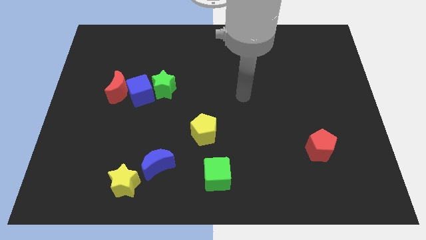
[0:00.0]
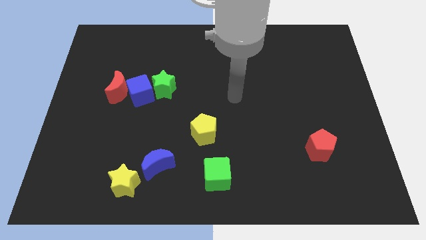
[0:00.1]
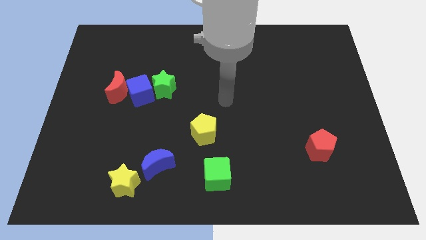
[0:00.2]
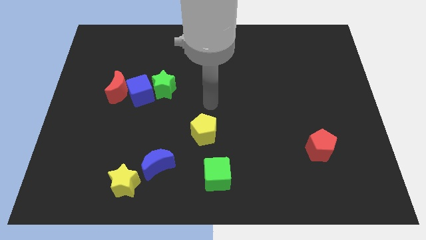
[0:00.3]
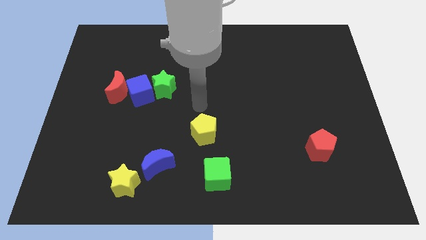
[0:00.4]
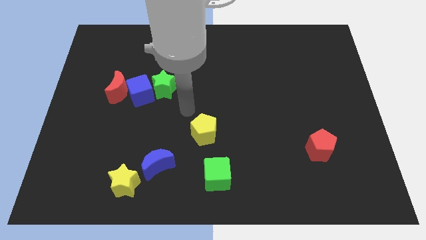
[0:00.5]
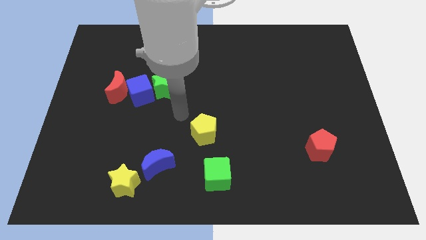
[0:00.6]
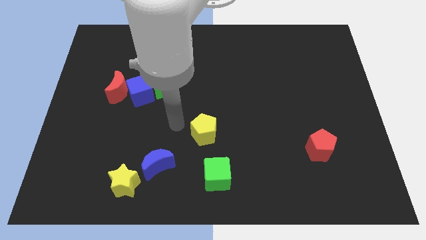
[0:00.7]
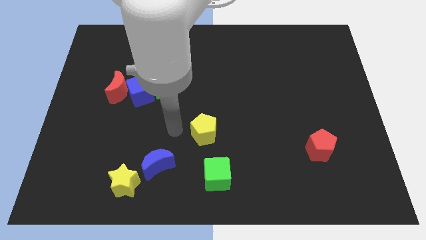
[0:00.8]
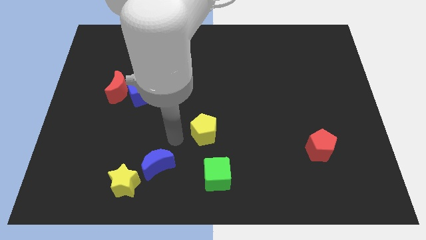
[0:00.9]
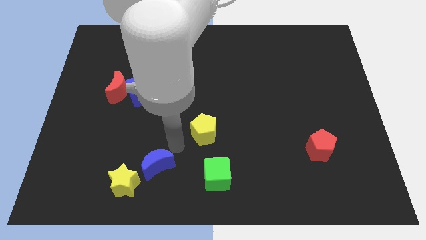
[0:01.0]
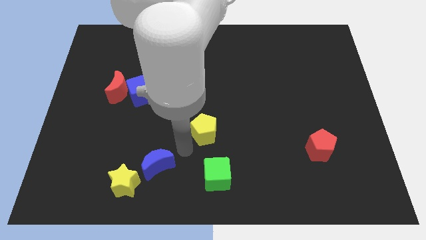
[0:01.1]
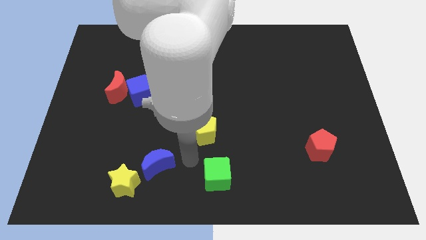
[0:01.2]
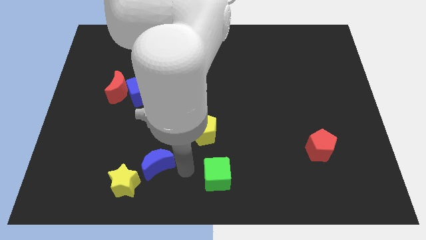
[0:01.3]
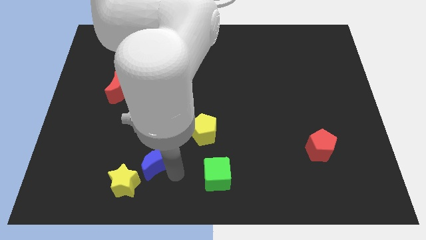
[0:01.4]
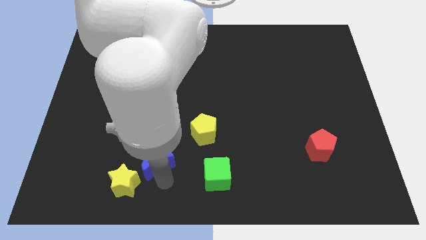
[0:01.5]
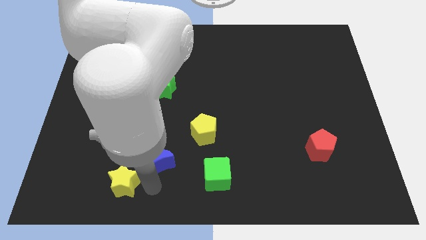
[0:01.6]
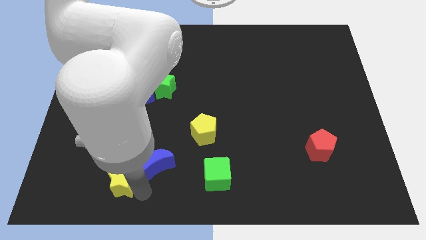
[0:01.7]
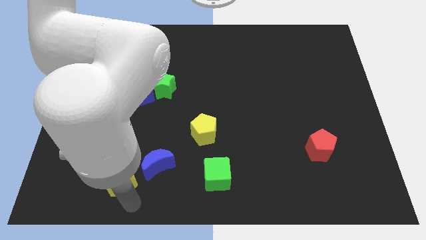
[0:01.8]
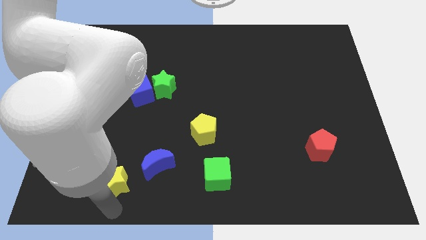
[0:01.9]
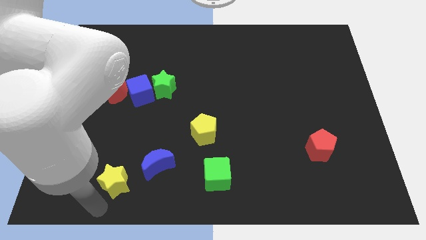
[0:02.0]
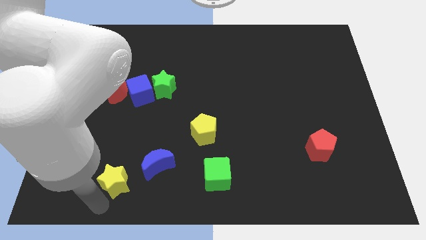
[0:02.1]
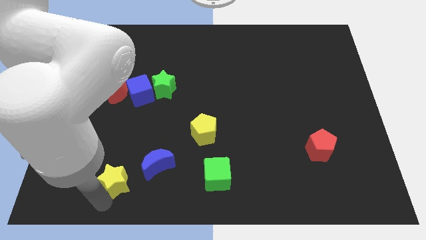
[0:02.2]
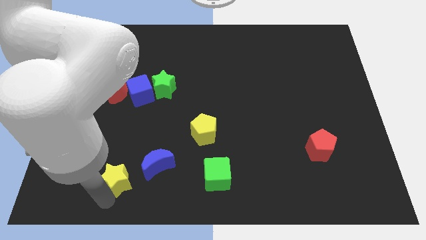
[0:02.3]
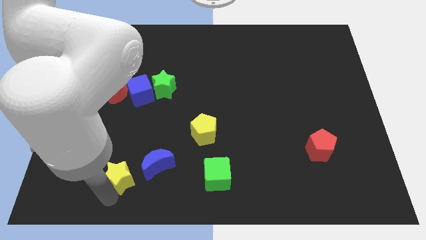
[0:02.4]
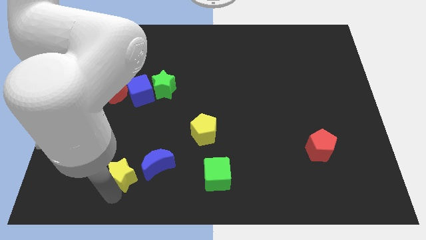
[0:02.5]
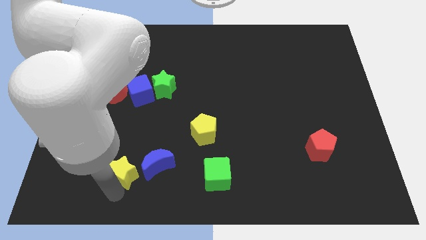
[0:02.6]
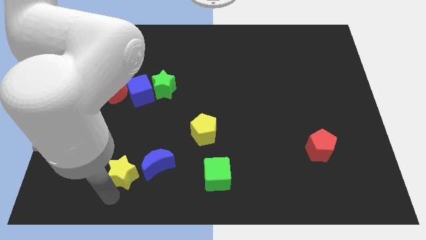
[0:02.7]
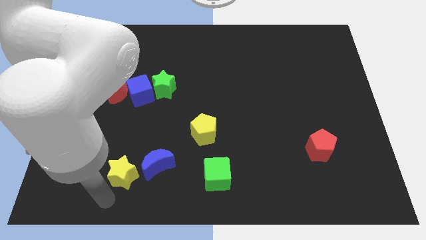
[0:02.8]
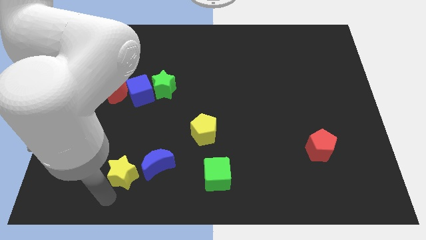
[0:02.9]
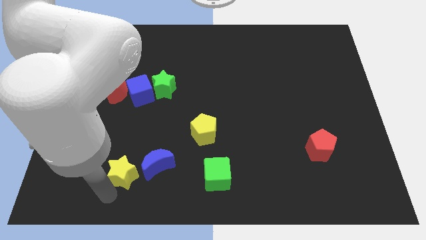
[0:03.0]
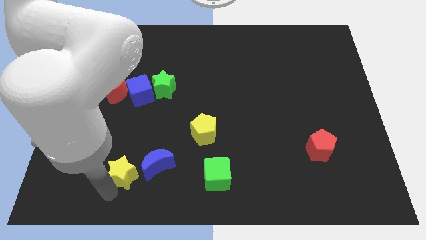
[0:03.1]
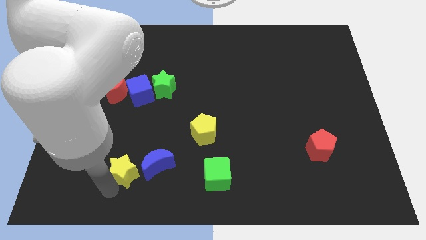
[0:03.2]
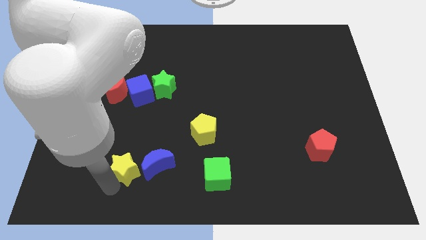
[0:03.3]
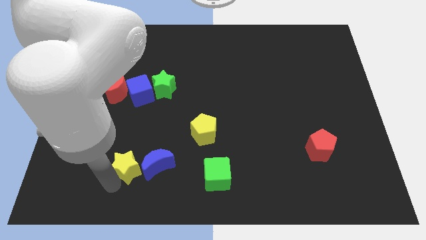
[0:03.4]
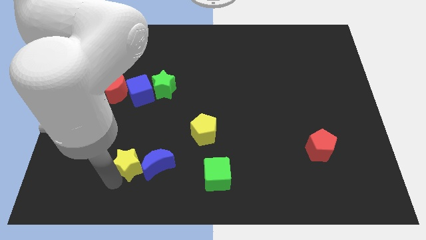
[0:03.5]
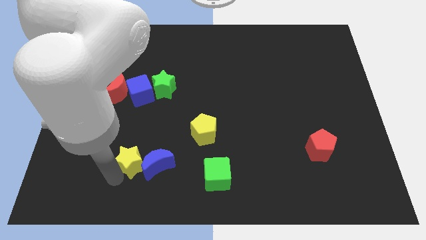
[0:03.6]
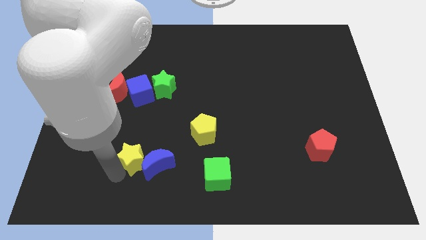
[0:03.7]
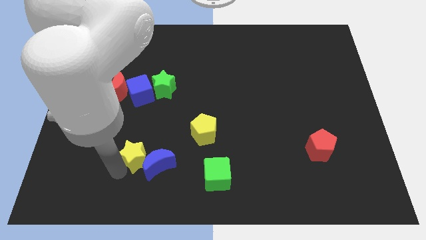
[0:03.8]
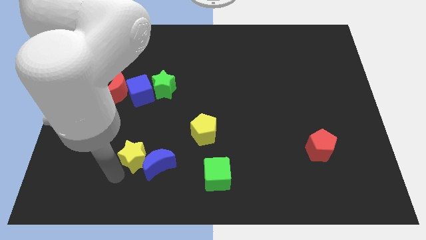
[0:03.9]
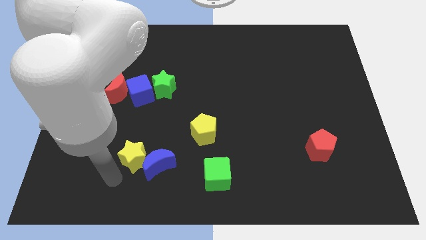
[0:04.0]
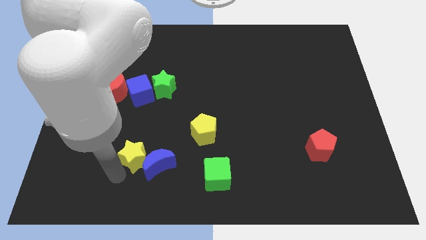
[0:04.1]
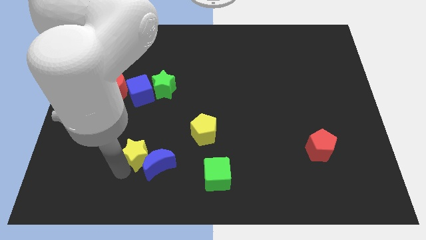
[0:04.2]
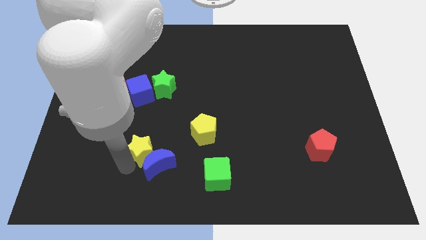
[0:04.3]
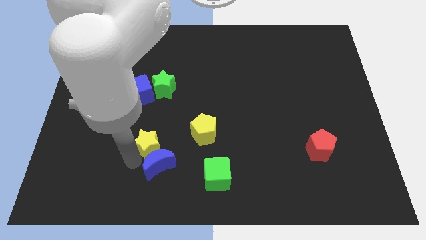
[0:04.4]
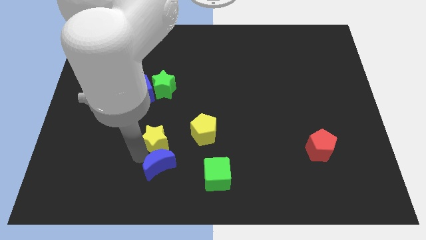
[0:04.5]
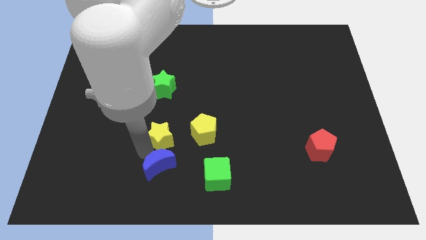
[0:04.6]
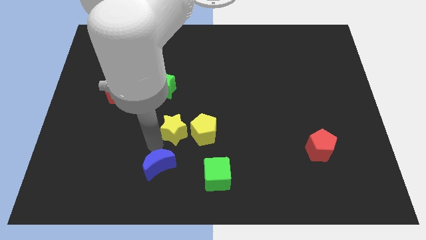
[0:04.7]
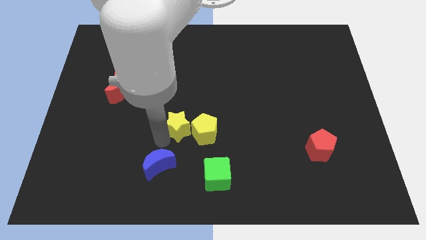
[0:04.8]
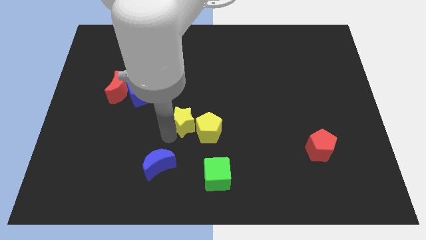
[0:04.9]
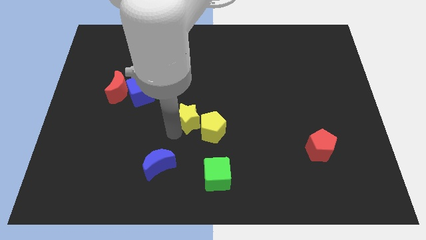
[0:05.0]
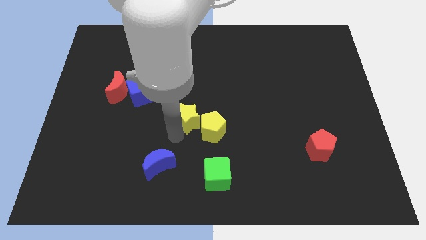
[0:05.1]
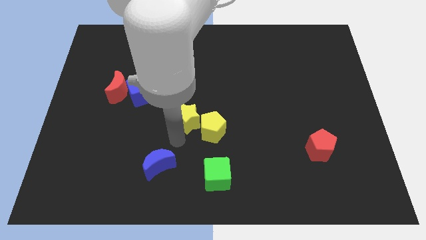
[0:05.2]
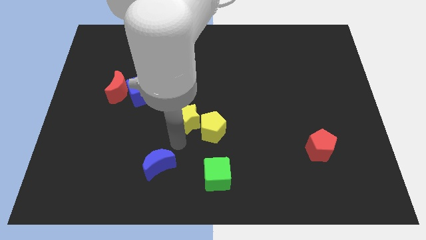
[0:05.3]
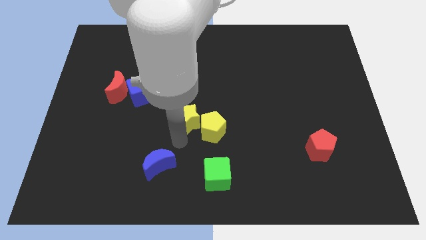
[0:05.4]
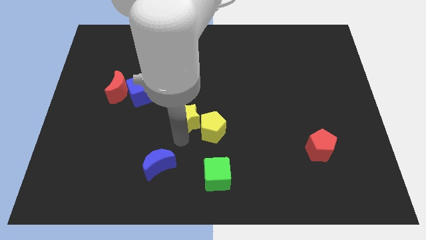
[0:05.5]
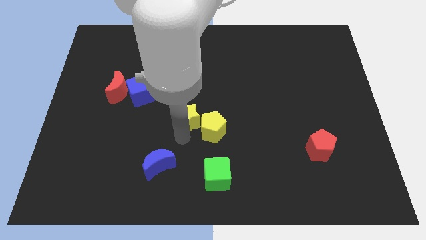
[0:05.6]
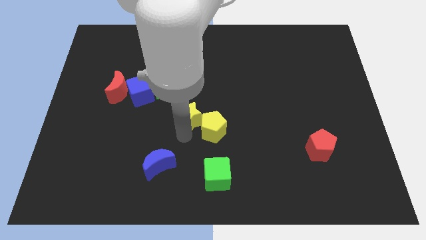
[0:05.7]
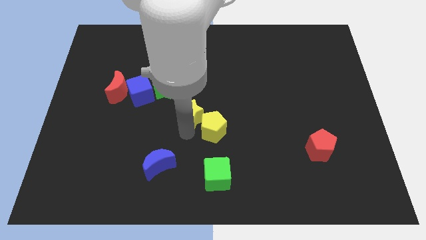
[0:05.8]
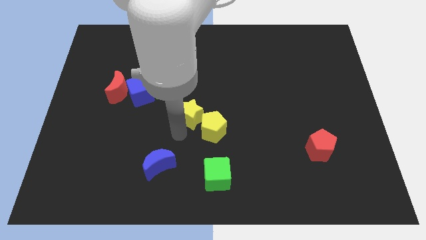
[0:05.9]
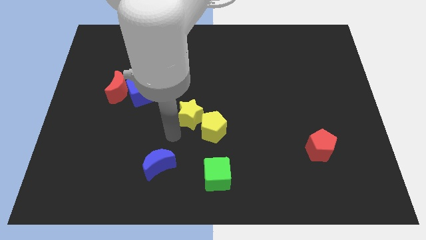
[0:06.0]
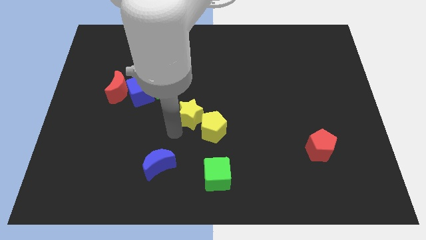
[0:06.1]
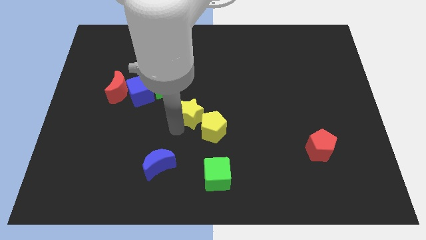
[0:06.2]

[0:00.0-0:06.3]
put the yellow star above the yellow pentagon
